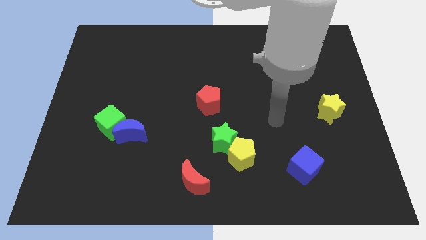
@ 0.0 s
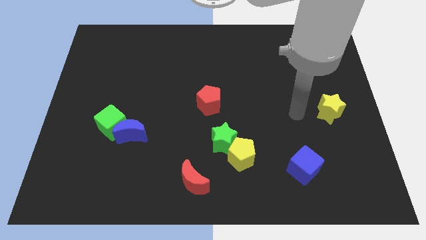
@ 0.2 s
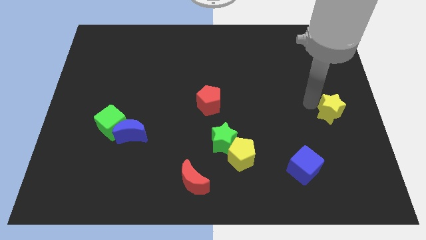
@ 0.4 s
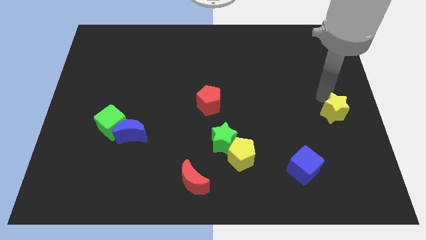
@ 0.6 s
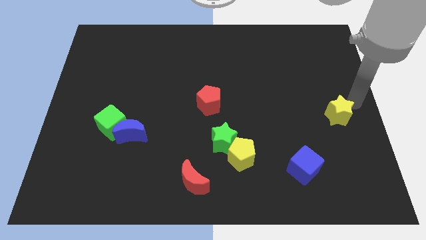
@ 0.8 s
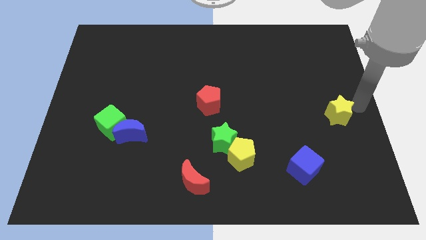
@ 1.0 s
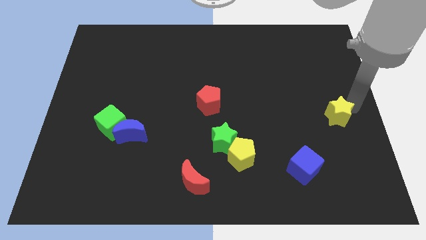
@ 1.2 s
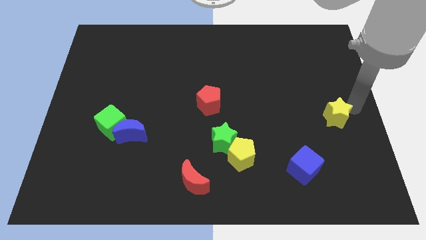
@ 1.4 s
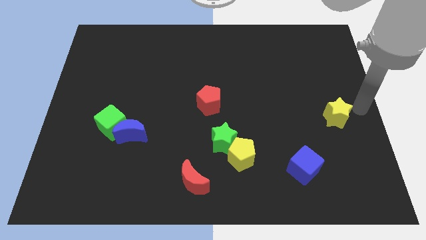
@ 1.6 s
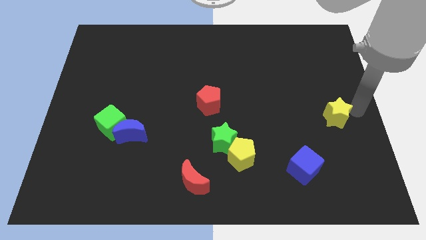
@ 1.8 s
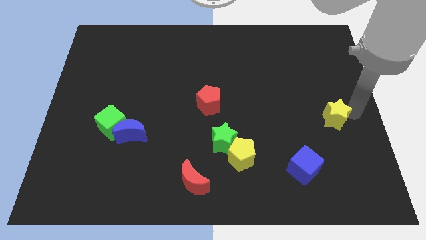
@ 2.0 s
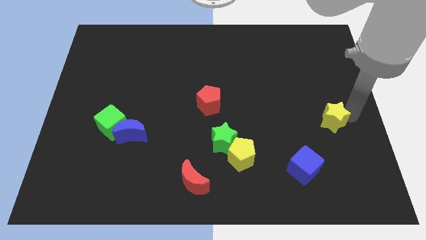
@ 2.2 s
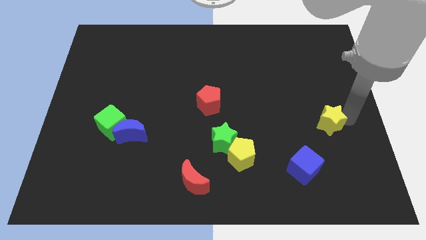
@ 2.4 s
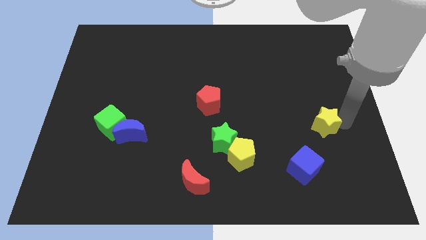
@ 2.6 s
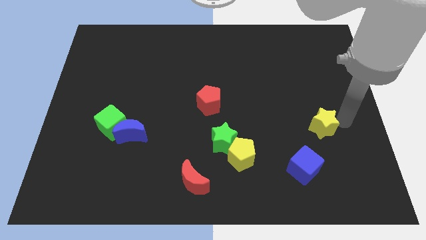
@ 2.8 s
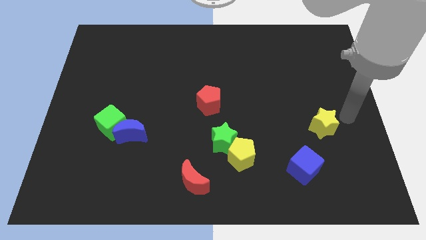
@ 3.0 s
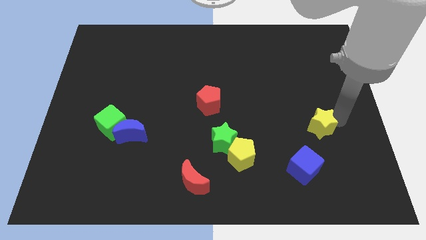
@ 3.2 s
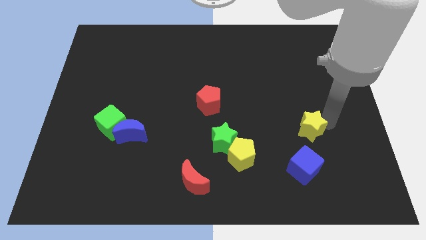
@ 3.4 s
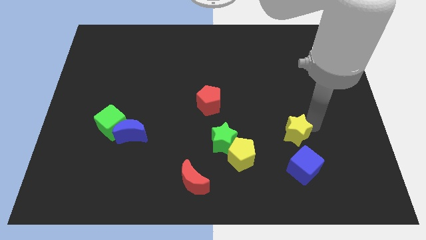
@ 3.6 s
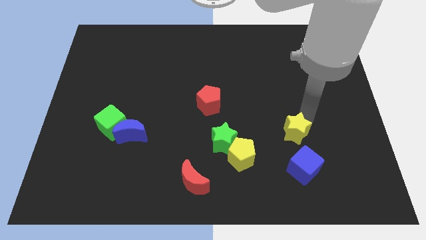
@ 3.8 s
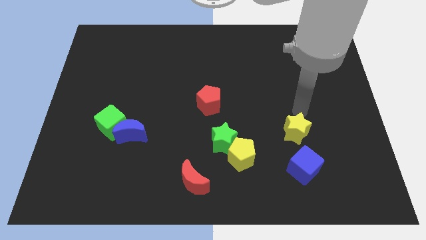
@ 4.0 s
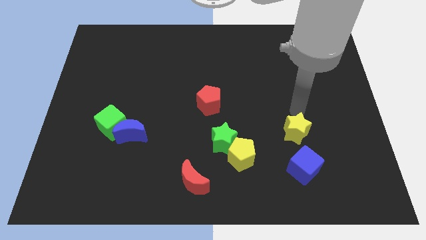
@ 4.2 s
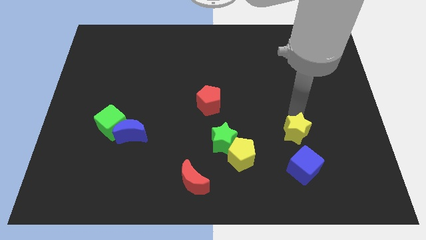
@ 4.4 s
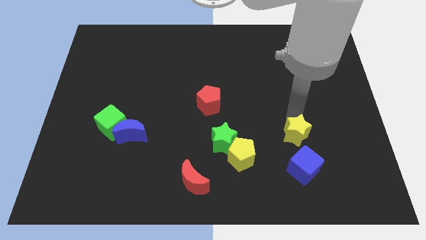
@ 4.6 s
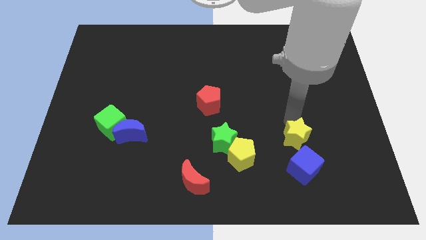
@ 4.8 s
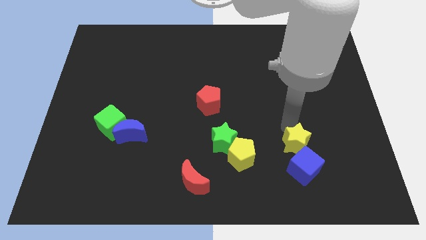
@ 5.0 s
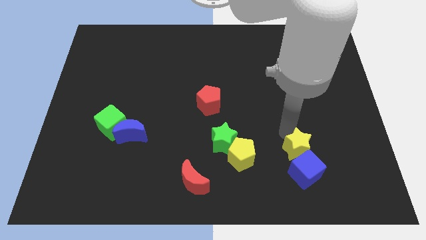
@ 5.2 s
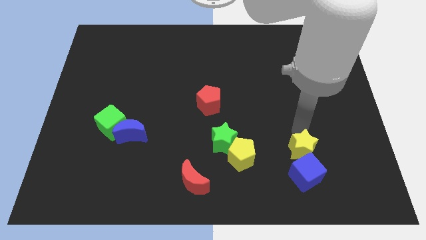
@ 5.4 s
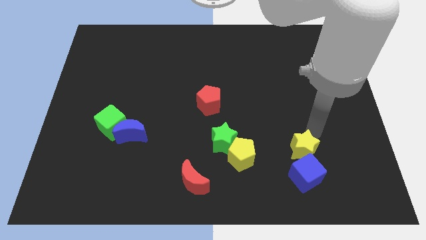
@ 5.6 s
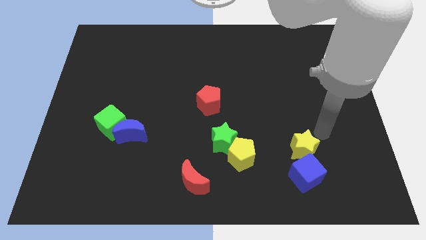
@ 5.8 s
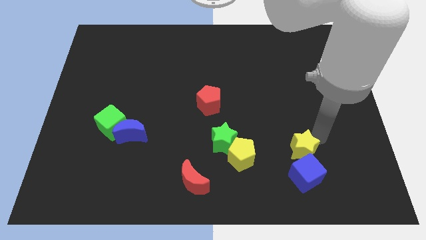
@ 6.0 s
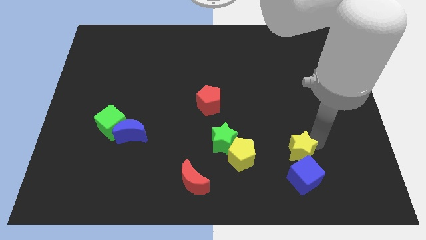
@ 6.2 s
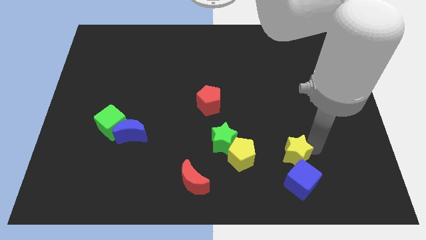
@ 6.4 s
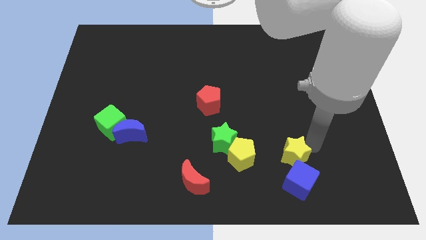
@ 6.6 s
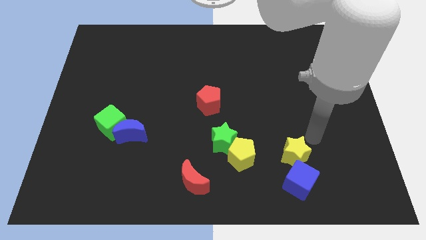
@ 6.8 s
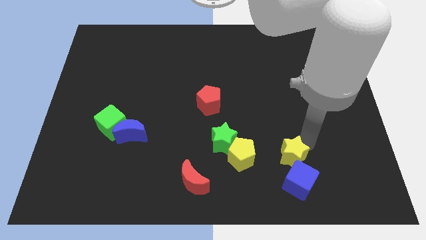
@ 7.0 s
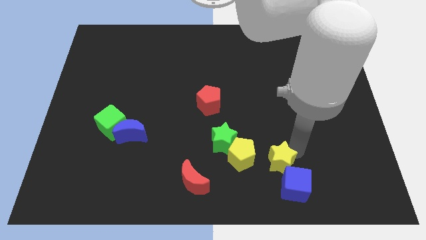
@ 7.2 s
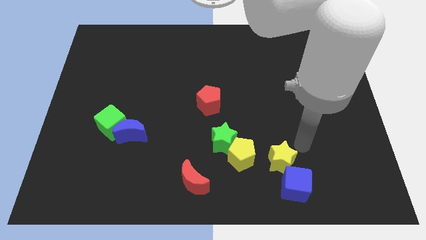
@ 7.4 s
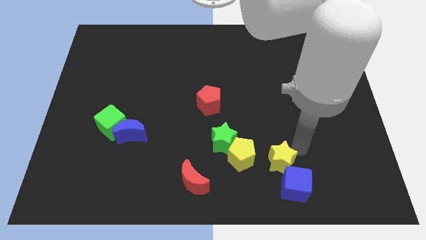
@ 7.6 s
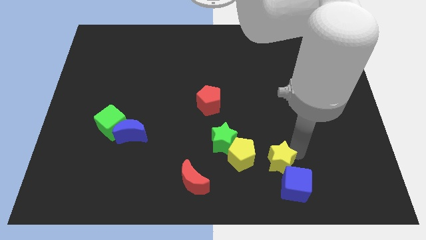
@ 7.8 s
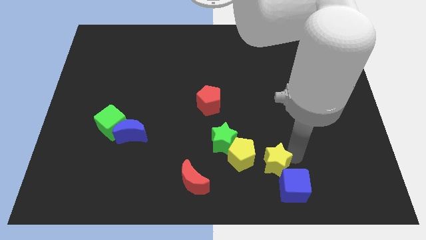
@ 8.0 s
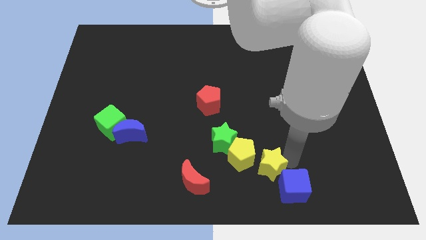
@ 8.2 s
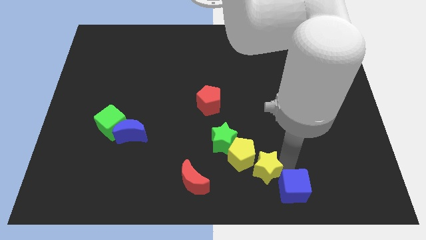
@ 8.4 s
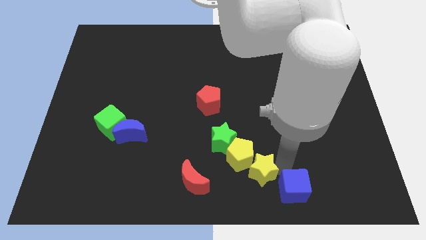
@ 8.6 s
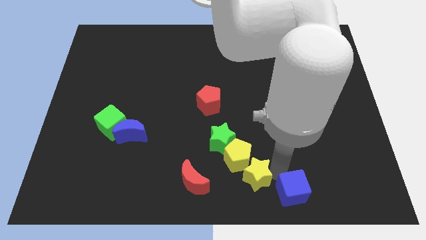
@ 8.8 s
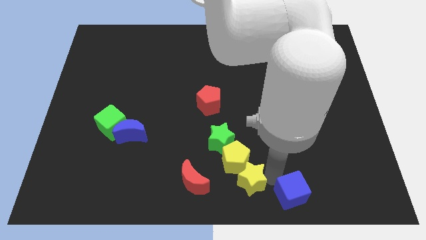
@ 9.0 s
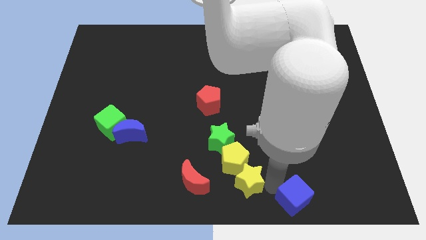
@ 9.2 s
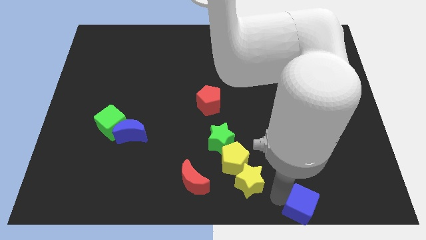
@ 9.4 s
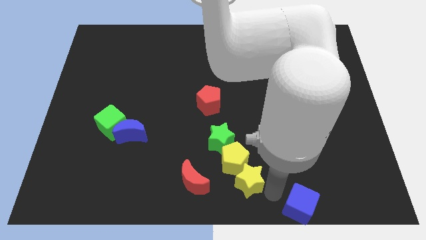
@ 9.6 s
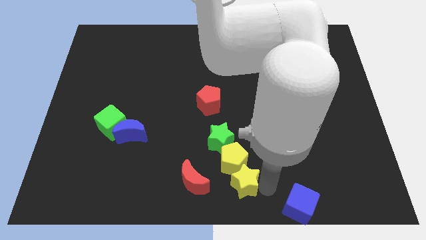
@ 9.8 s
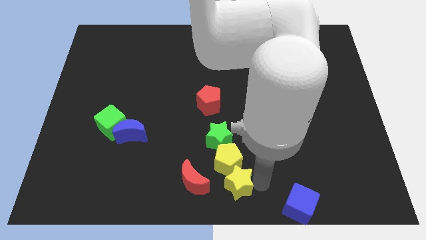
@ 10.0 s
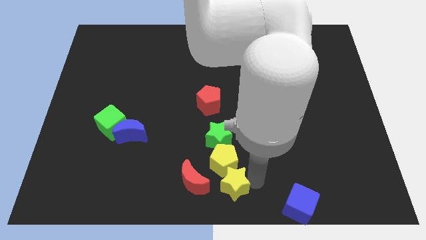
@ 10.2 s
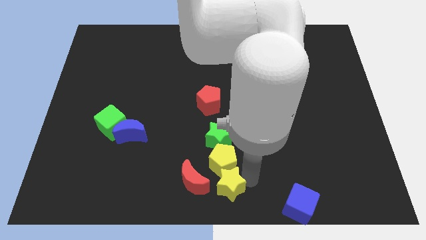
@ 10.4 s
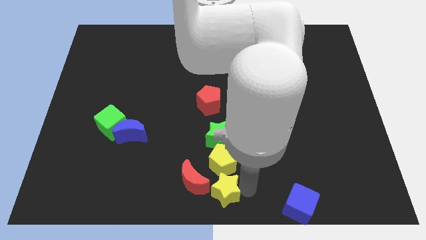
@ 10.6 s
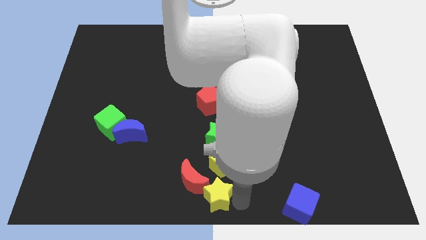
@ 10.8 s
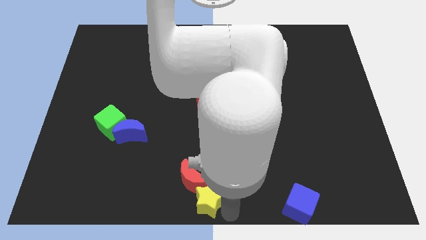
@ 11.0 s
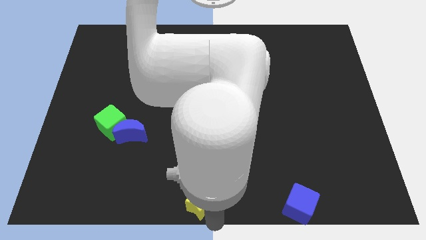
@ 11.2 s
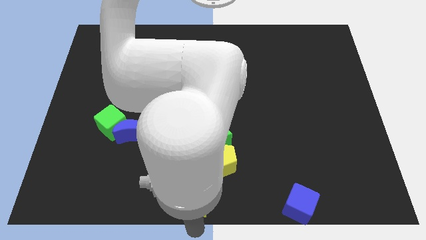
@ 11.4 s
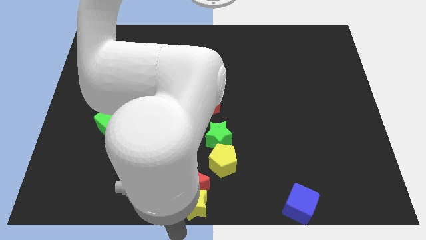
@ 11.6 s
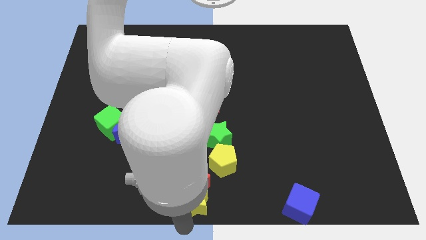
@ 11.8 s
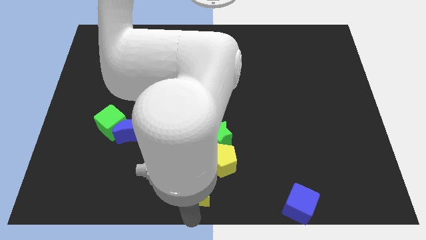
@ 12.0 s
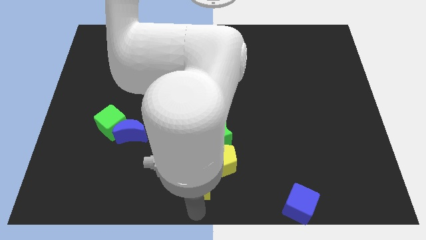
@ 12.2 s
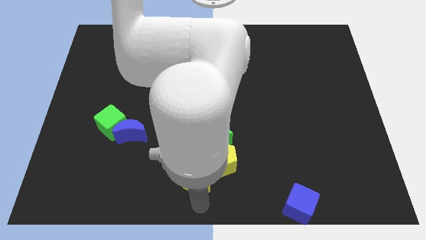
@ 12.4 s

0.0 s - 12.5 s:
move the yellow star diagonally down and to the left of the green star
